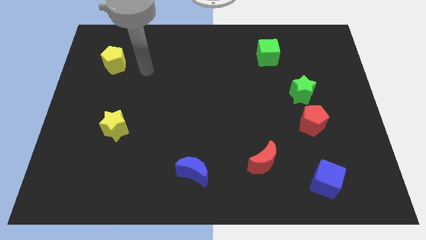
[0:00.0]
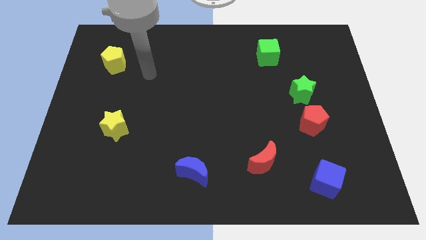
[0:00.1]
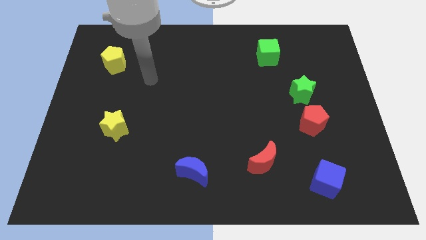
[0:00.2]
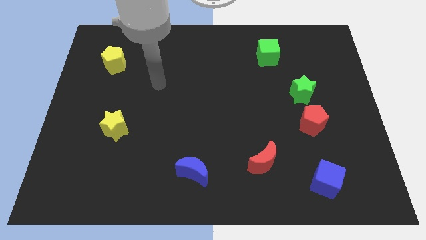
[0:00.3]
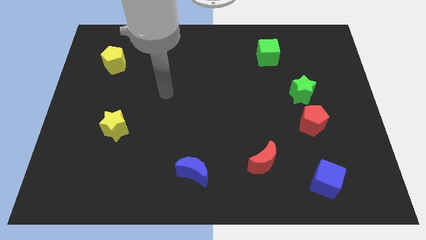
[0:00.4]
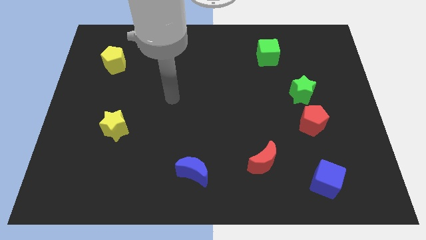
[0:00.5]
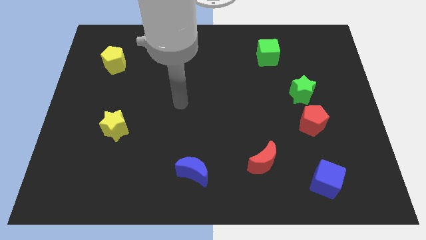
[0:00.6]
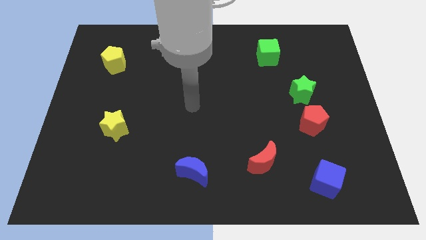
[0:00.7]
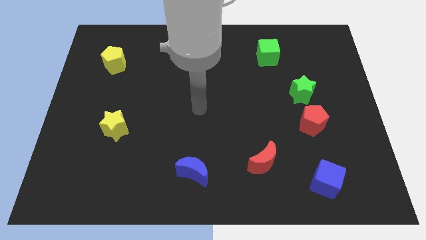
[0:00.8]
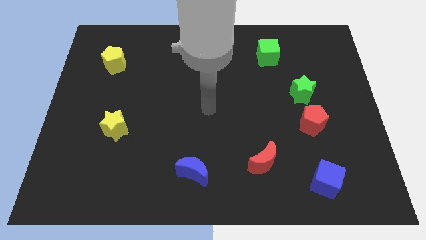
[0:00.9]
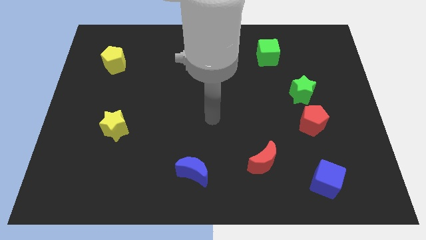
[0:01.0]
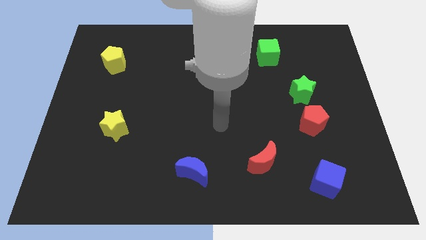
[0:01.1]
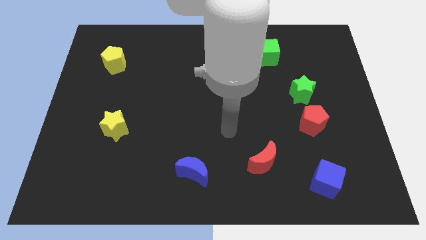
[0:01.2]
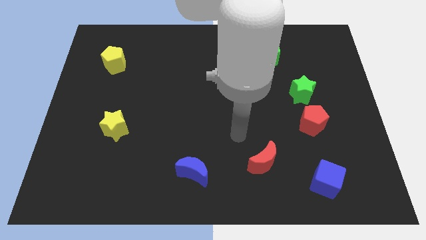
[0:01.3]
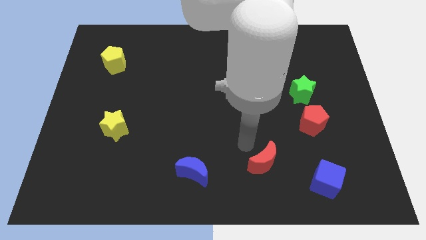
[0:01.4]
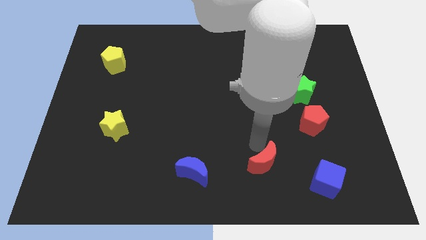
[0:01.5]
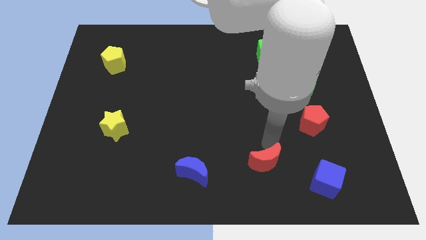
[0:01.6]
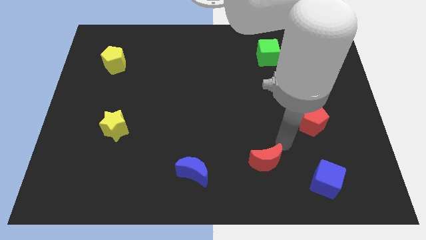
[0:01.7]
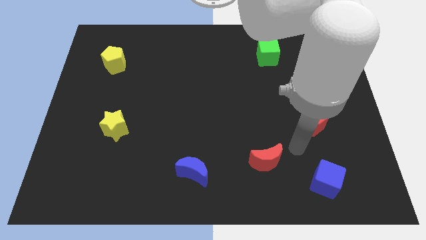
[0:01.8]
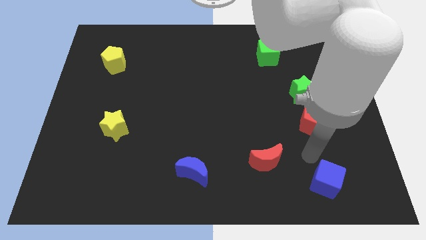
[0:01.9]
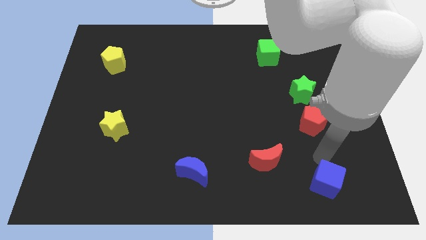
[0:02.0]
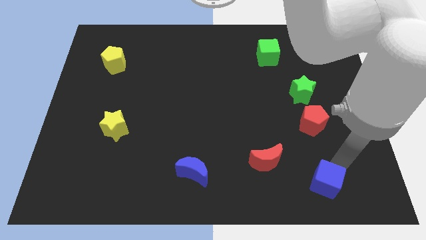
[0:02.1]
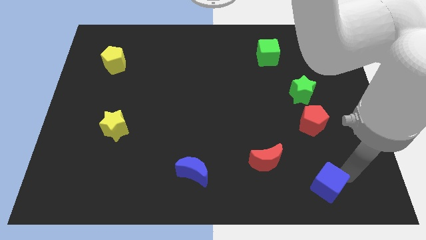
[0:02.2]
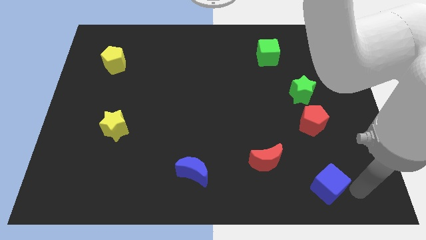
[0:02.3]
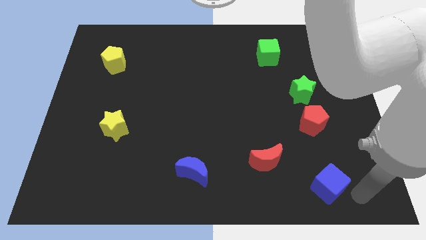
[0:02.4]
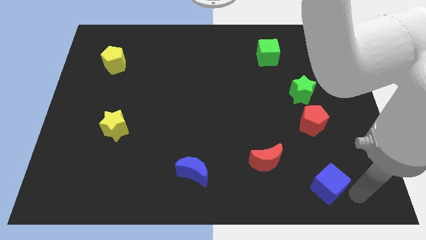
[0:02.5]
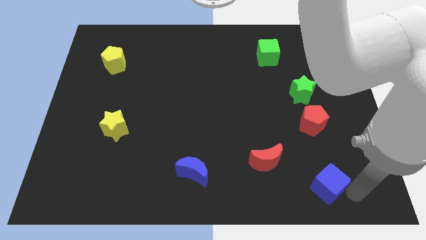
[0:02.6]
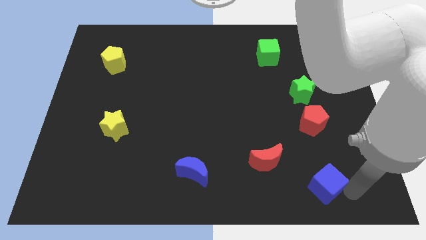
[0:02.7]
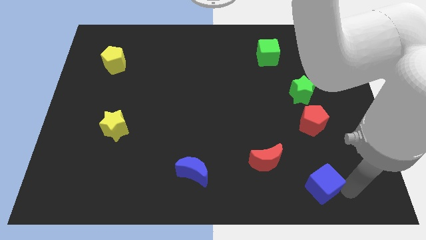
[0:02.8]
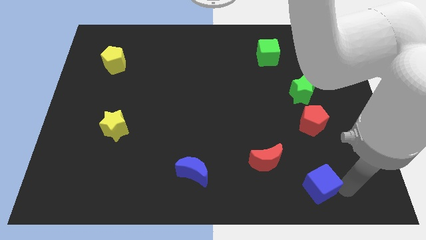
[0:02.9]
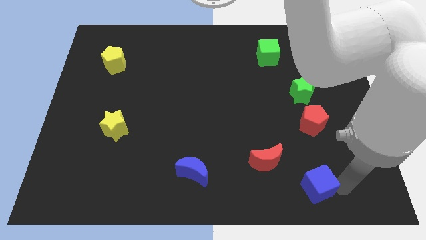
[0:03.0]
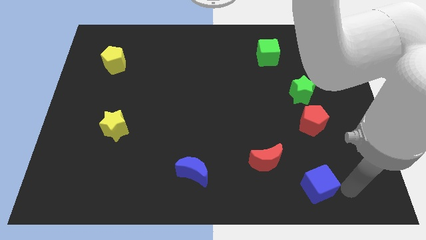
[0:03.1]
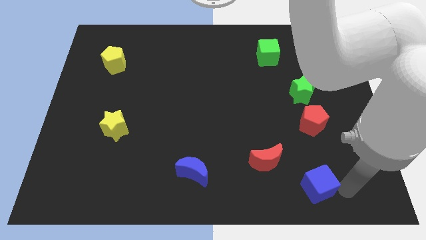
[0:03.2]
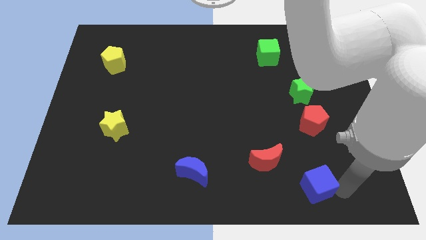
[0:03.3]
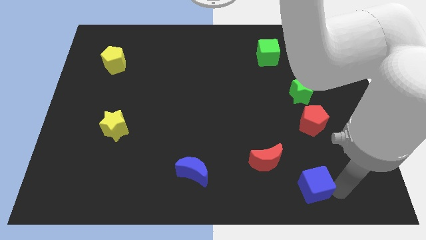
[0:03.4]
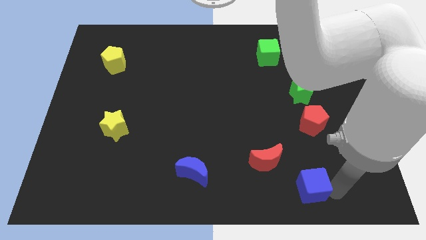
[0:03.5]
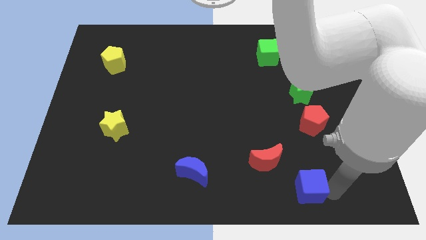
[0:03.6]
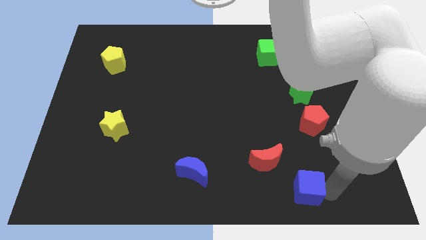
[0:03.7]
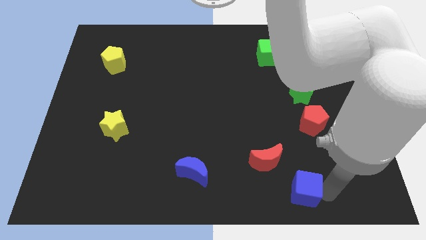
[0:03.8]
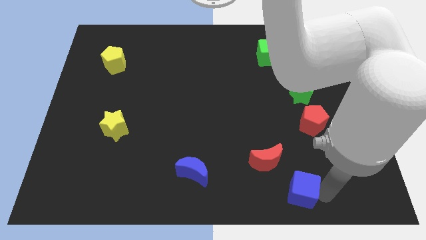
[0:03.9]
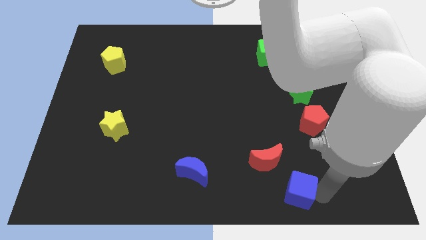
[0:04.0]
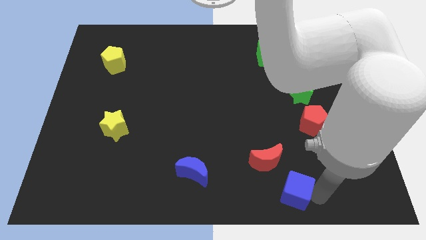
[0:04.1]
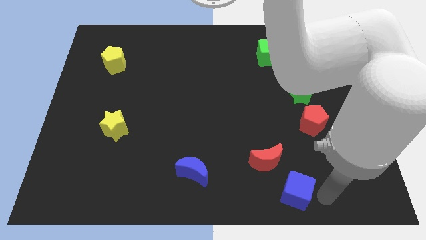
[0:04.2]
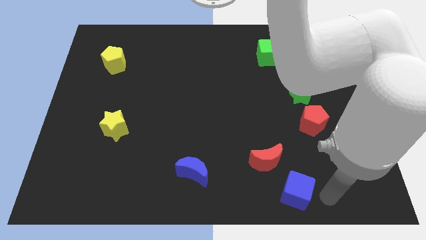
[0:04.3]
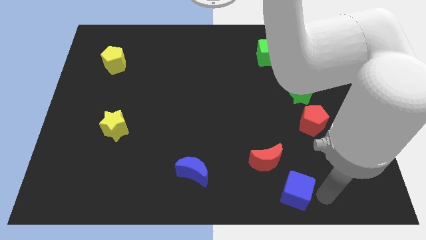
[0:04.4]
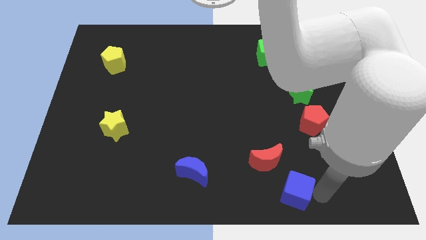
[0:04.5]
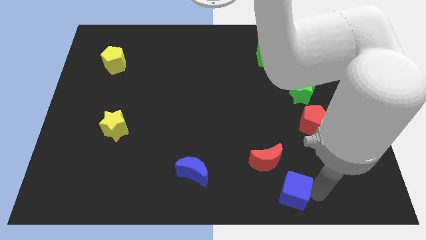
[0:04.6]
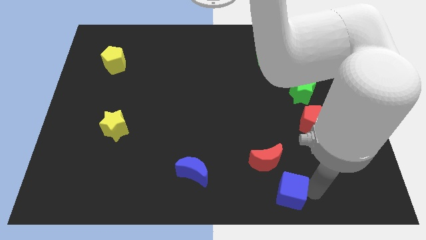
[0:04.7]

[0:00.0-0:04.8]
move the blue cube slightly left

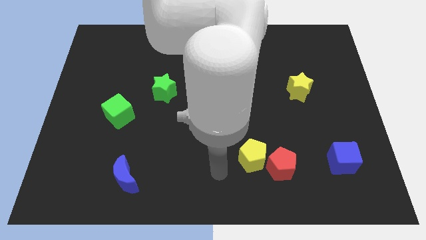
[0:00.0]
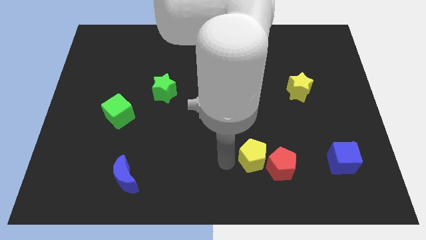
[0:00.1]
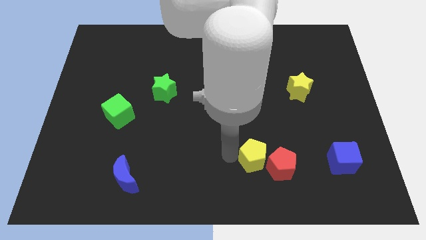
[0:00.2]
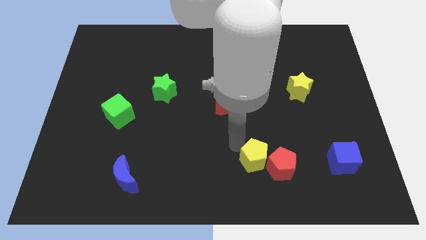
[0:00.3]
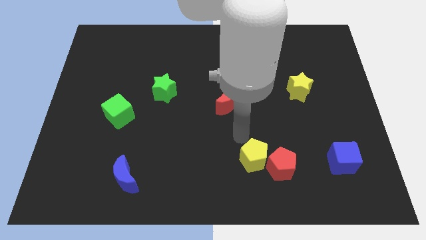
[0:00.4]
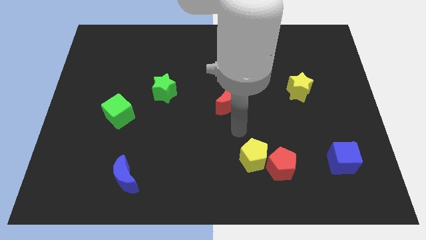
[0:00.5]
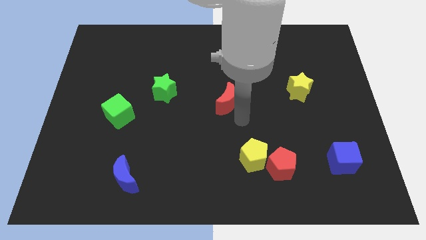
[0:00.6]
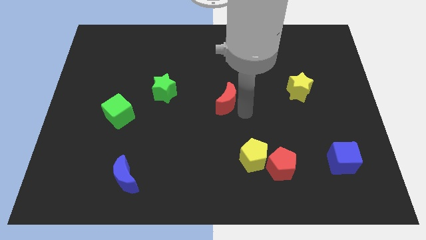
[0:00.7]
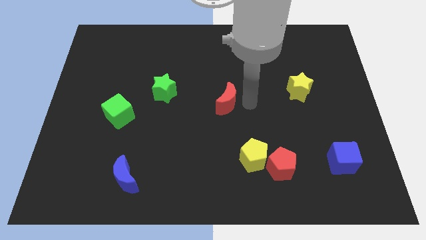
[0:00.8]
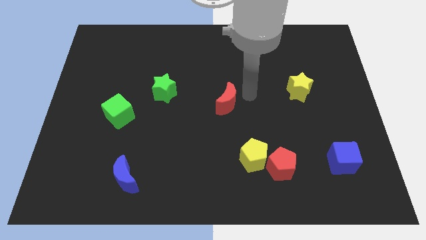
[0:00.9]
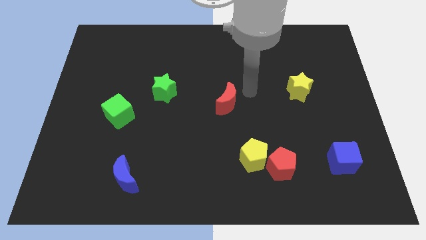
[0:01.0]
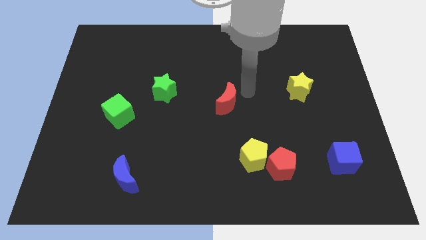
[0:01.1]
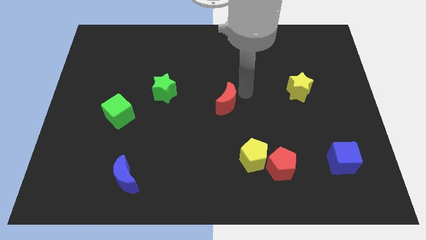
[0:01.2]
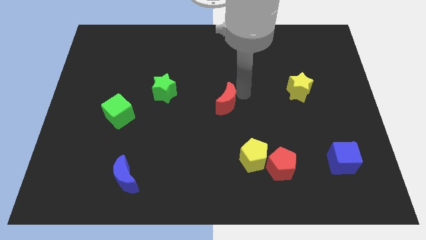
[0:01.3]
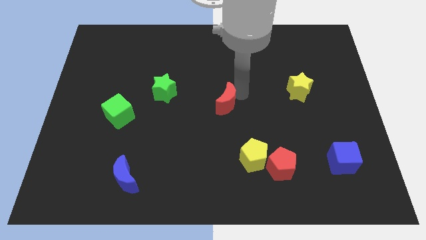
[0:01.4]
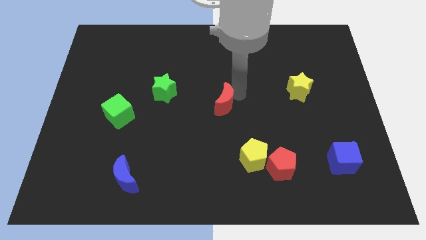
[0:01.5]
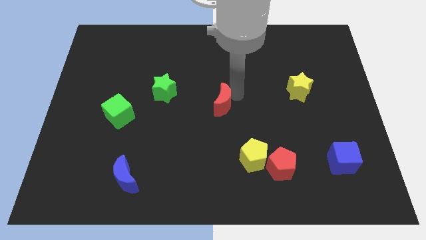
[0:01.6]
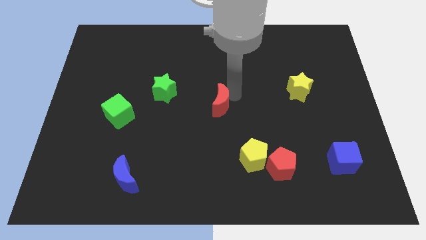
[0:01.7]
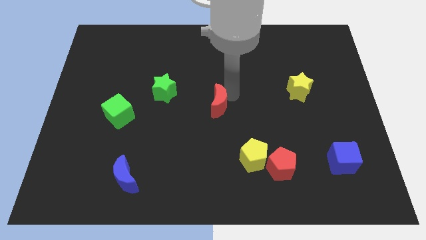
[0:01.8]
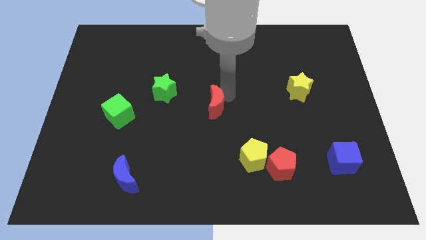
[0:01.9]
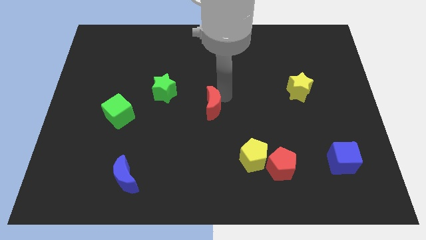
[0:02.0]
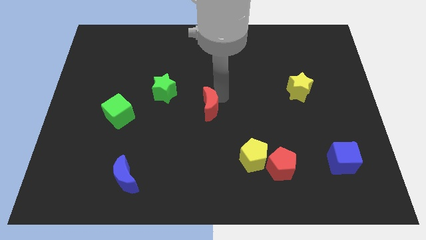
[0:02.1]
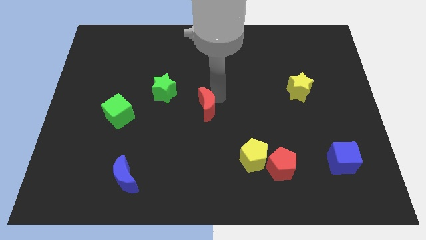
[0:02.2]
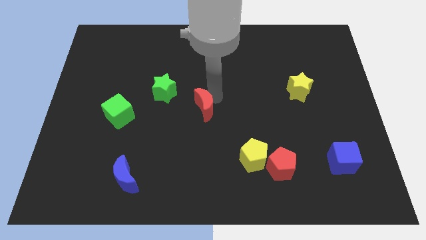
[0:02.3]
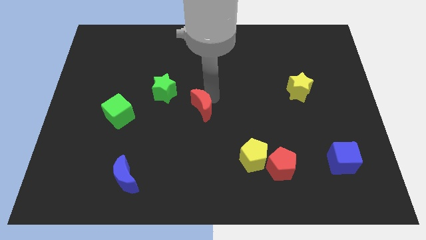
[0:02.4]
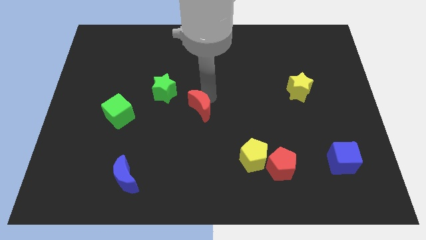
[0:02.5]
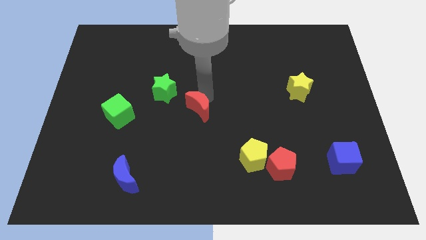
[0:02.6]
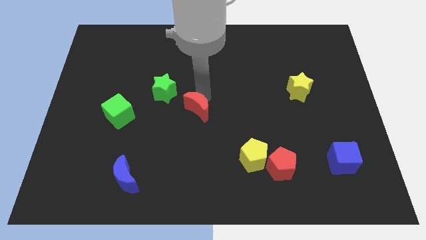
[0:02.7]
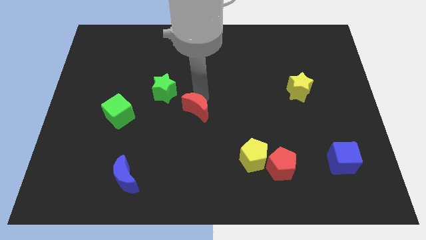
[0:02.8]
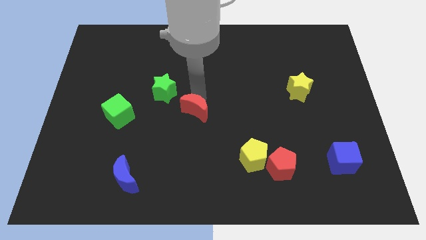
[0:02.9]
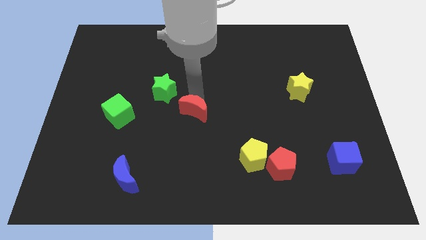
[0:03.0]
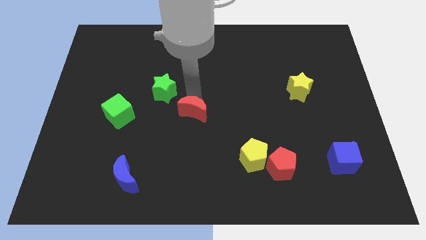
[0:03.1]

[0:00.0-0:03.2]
slightly move the red moon downwards and then left
